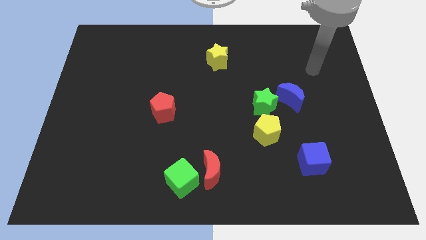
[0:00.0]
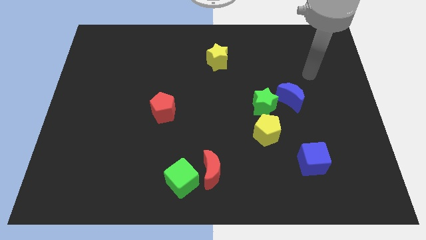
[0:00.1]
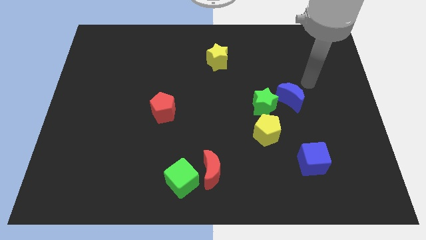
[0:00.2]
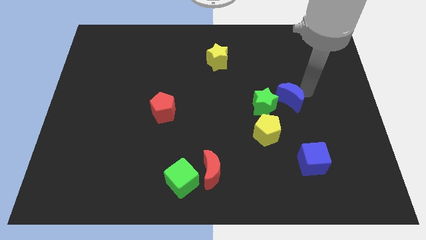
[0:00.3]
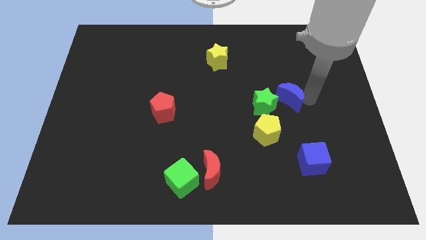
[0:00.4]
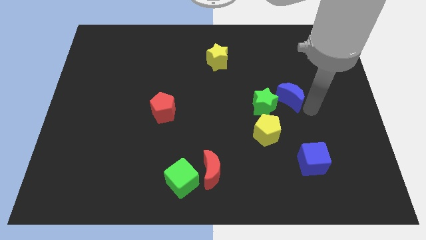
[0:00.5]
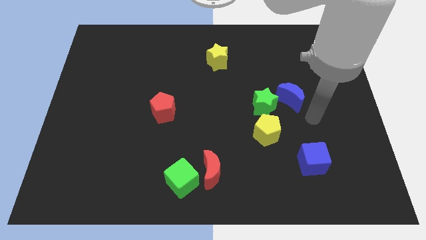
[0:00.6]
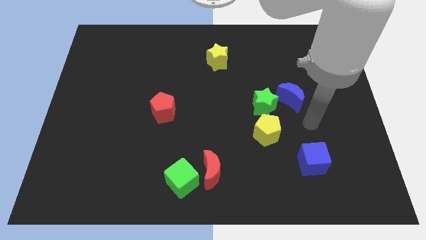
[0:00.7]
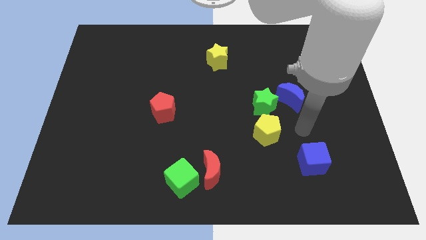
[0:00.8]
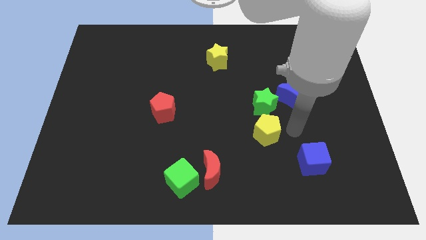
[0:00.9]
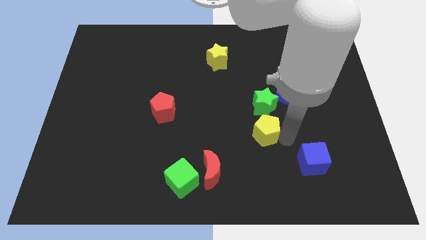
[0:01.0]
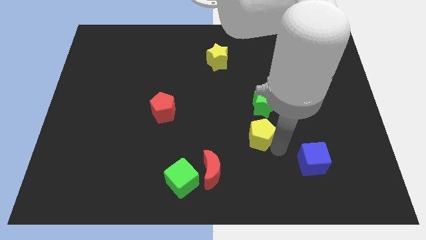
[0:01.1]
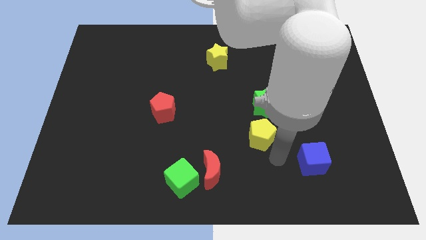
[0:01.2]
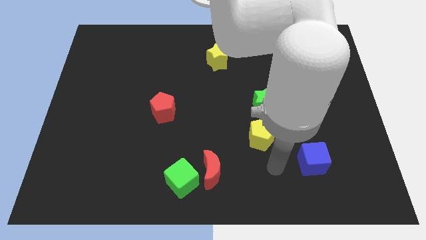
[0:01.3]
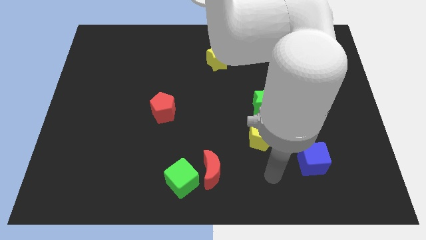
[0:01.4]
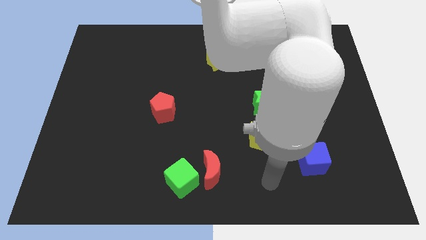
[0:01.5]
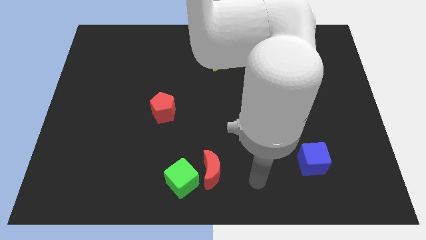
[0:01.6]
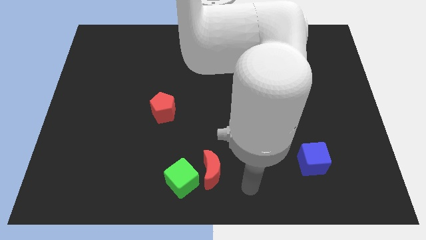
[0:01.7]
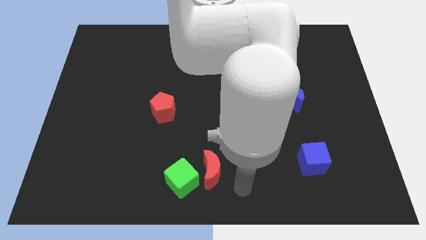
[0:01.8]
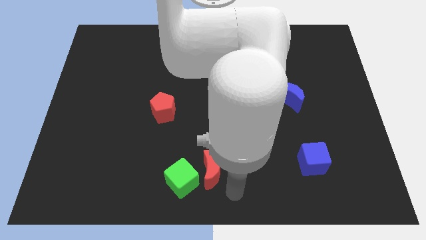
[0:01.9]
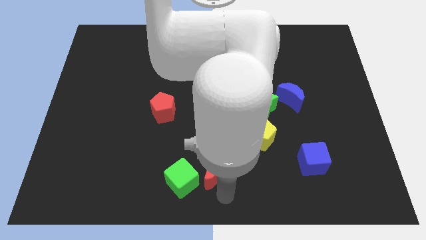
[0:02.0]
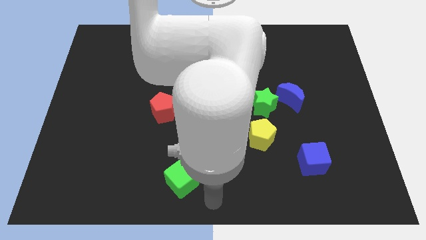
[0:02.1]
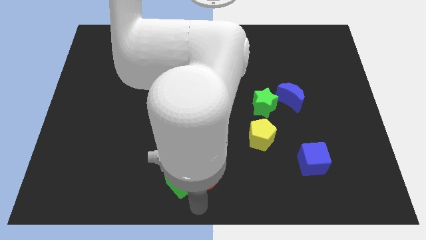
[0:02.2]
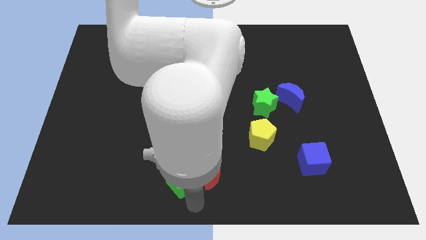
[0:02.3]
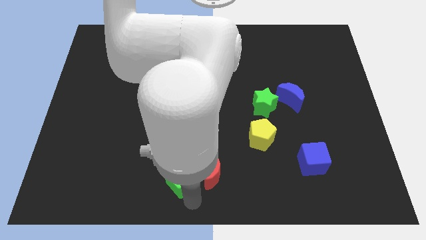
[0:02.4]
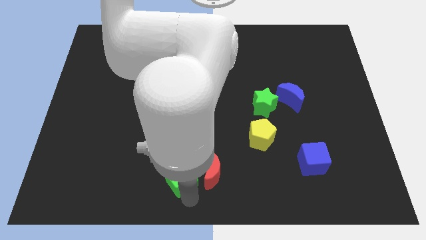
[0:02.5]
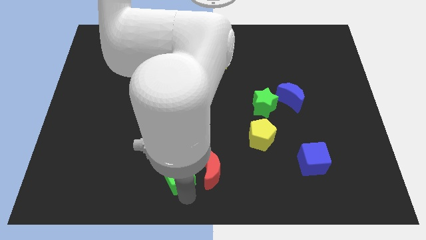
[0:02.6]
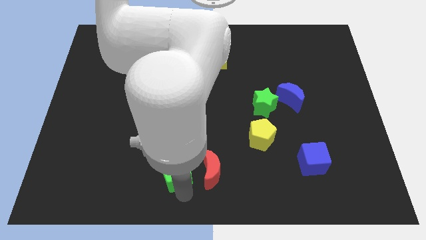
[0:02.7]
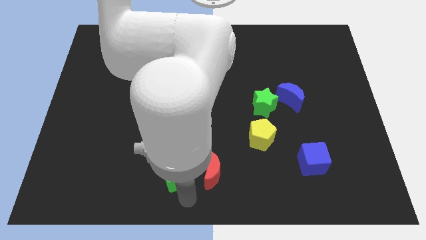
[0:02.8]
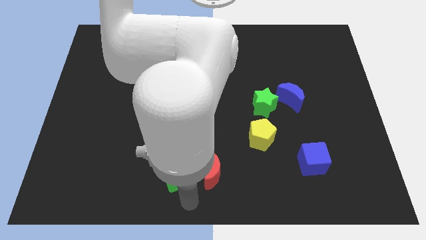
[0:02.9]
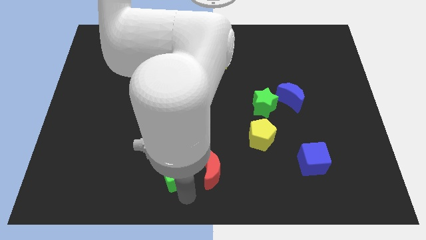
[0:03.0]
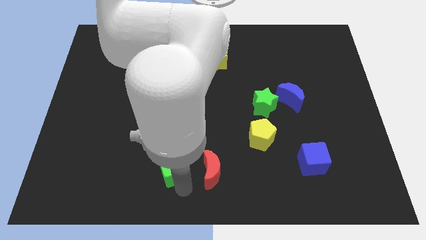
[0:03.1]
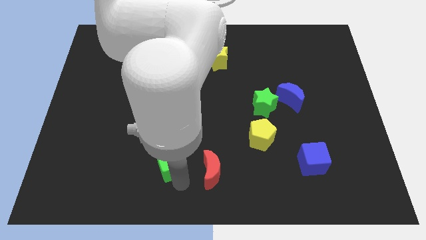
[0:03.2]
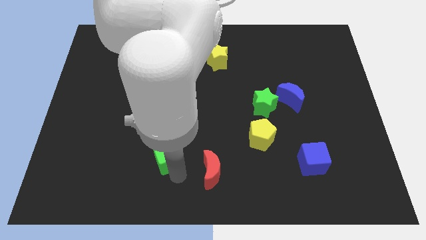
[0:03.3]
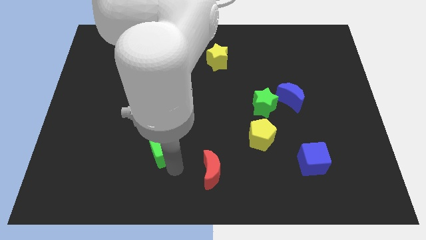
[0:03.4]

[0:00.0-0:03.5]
move the green cube a little upwards and left diagonally

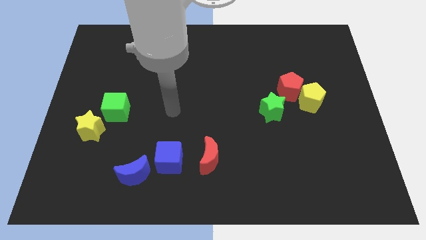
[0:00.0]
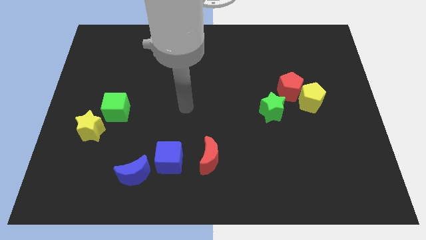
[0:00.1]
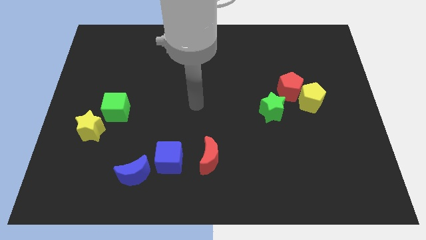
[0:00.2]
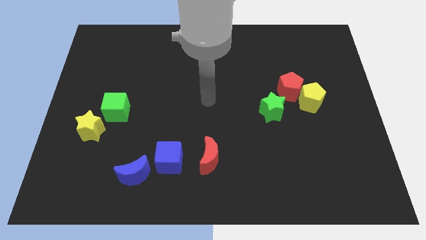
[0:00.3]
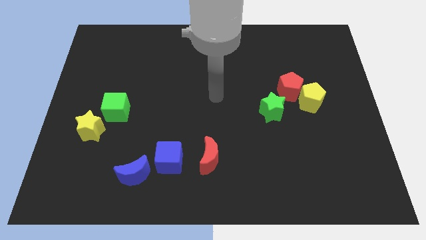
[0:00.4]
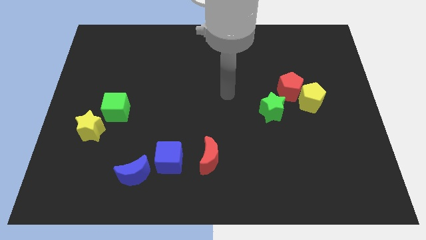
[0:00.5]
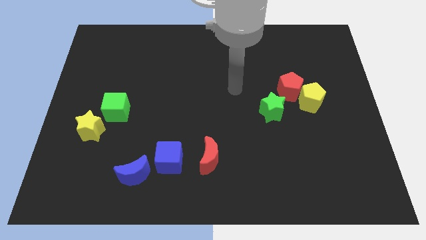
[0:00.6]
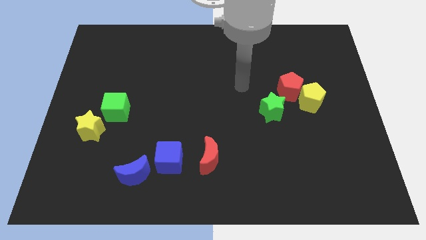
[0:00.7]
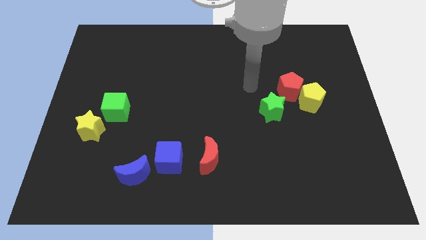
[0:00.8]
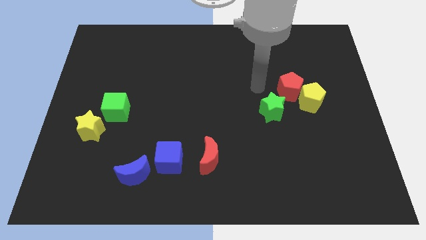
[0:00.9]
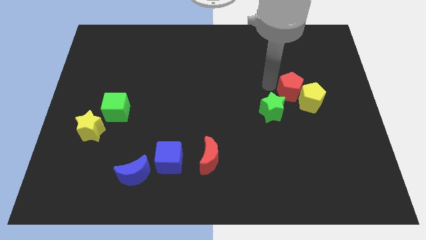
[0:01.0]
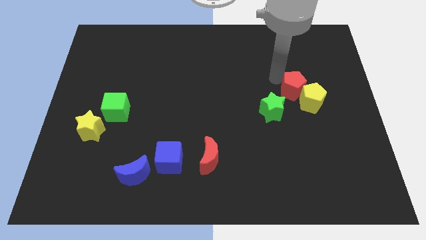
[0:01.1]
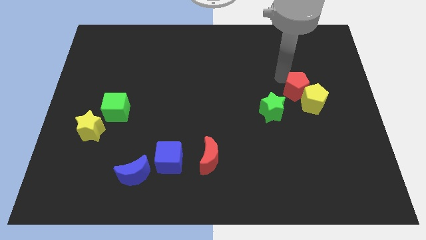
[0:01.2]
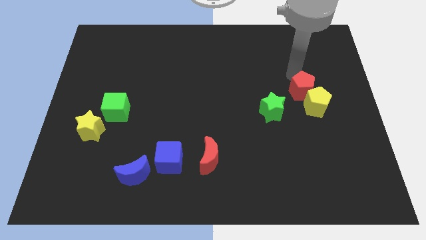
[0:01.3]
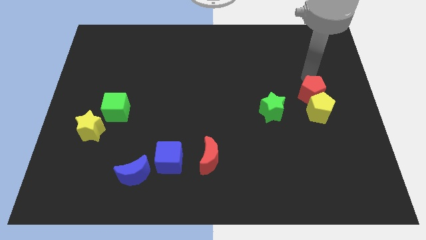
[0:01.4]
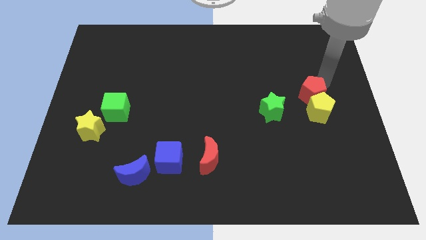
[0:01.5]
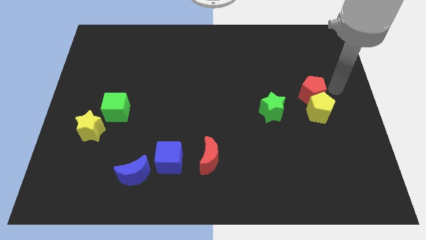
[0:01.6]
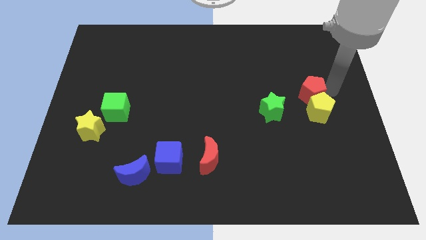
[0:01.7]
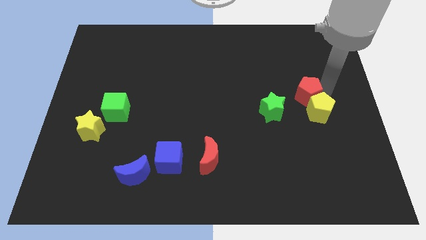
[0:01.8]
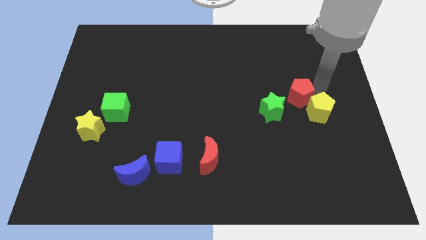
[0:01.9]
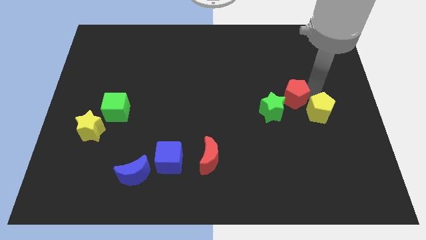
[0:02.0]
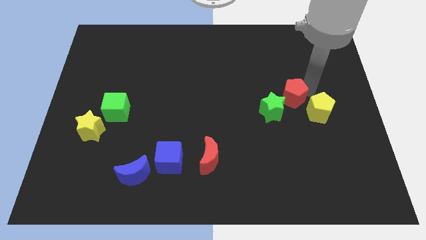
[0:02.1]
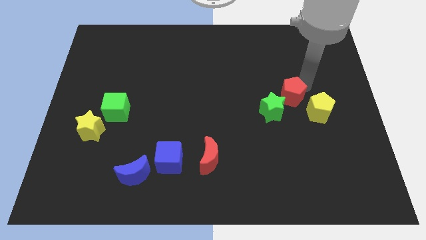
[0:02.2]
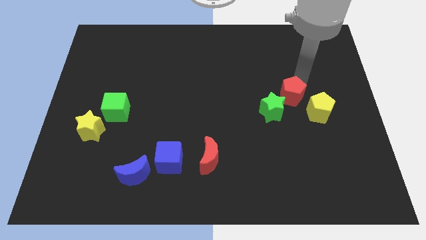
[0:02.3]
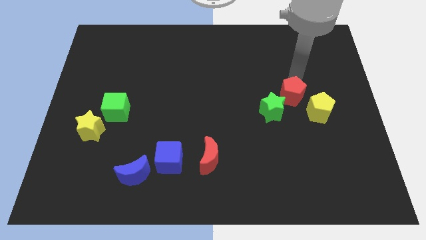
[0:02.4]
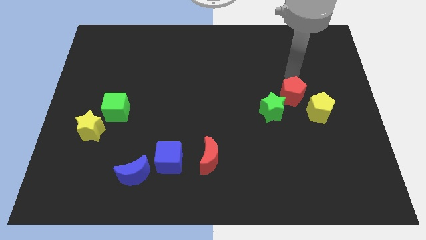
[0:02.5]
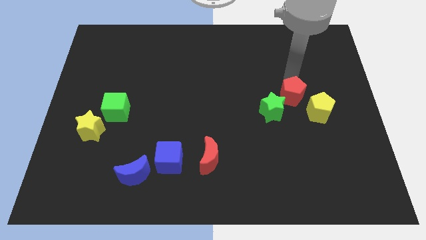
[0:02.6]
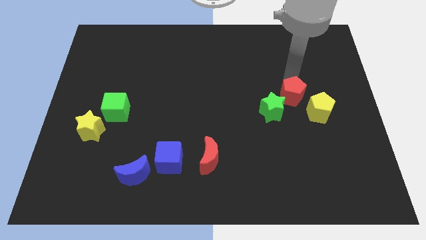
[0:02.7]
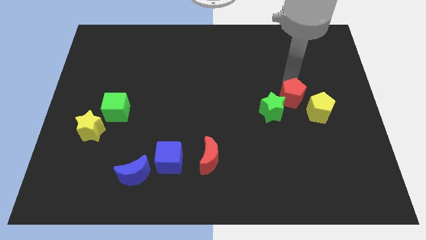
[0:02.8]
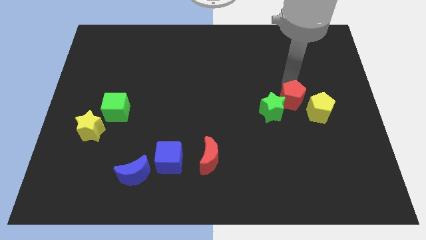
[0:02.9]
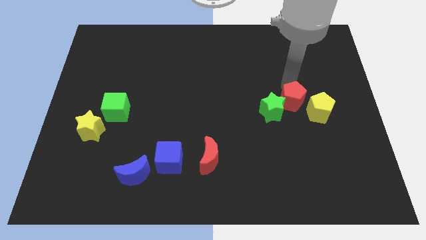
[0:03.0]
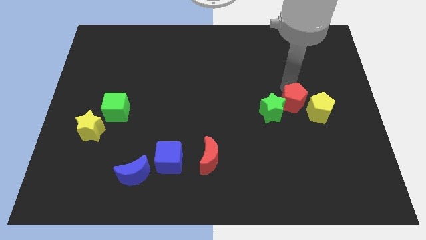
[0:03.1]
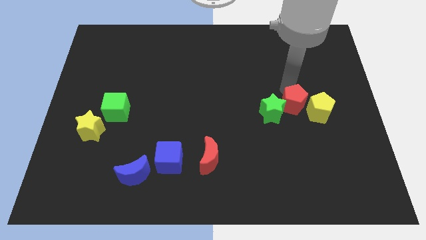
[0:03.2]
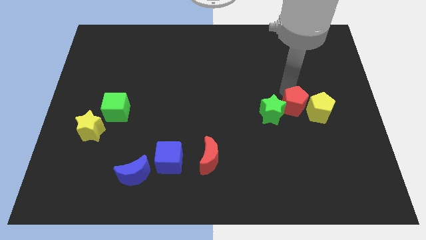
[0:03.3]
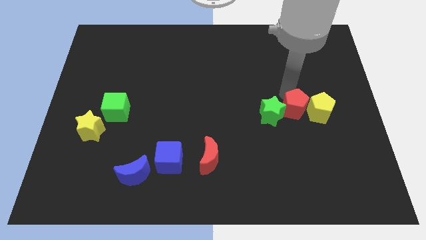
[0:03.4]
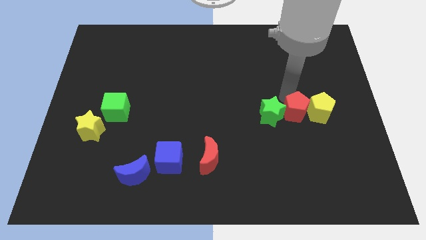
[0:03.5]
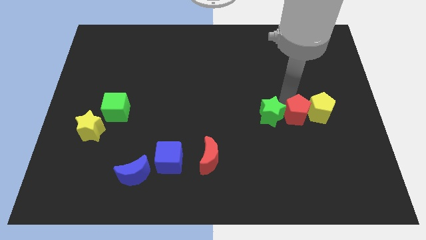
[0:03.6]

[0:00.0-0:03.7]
move the red pentagon a bit down

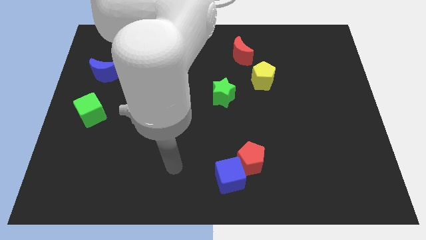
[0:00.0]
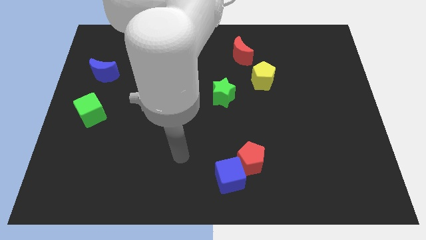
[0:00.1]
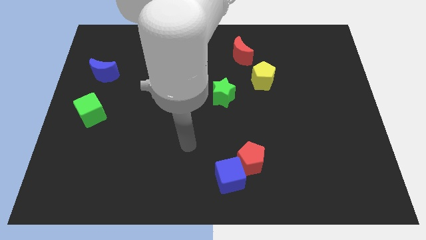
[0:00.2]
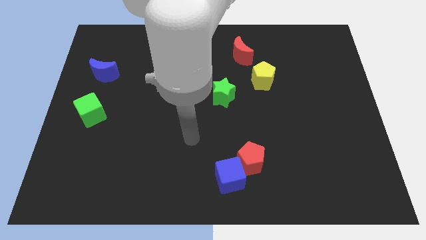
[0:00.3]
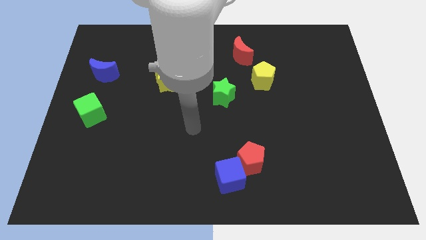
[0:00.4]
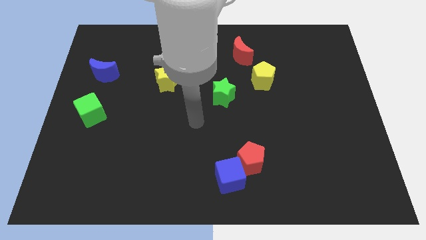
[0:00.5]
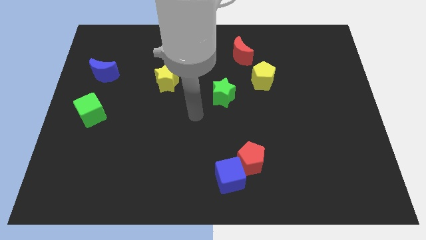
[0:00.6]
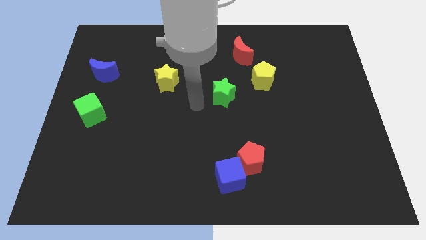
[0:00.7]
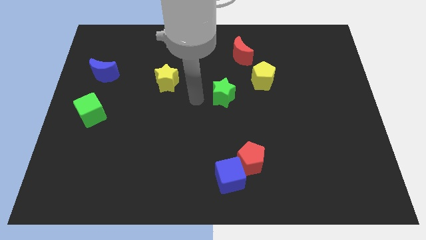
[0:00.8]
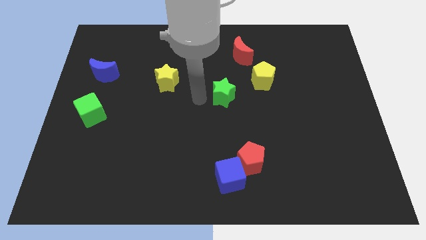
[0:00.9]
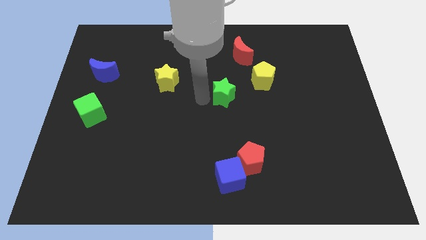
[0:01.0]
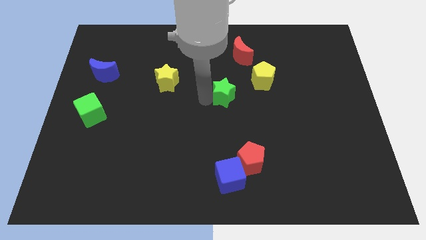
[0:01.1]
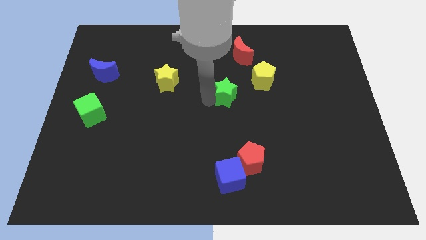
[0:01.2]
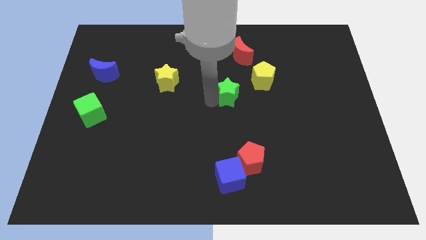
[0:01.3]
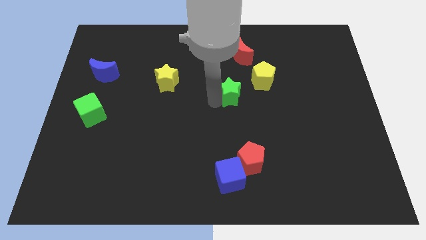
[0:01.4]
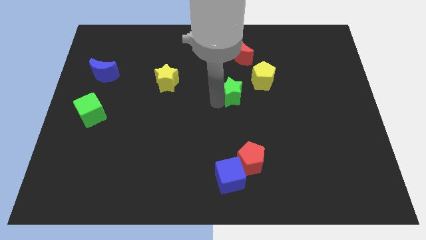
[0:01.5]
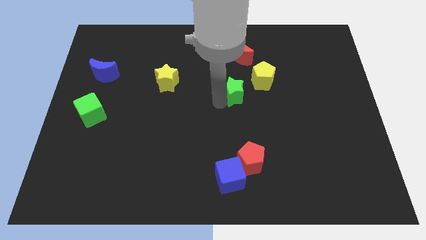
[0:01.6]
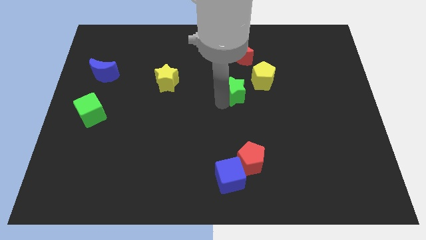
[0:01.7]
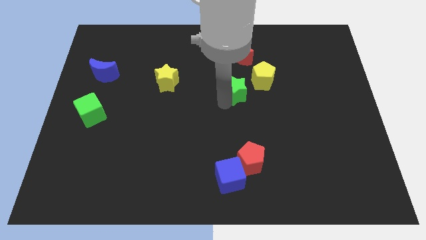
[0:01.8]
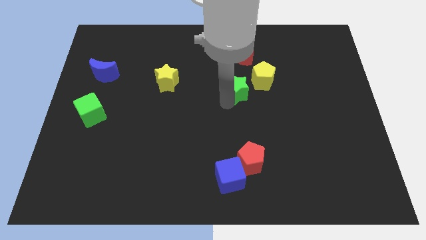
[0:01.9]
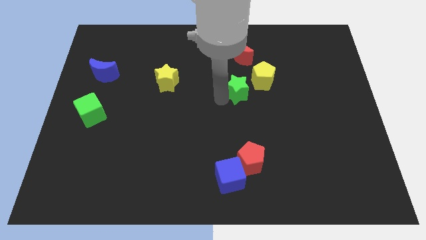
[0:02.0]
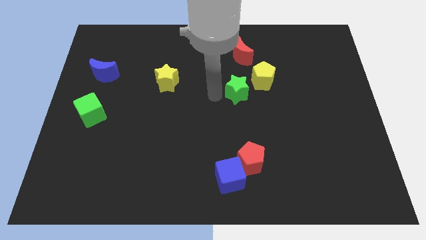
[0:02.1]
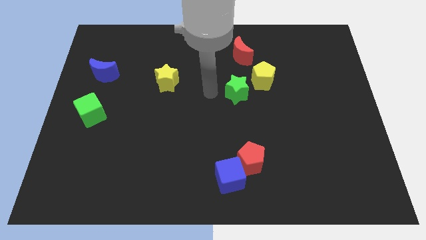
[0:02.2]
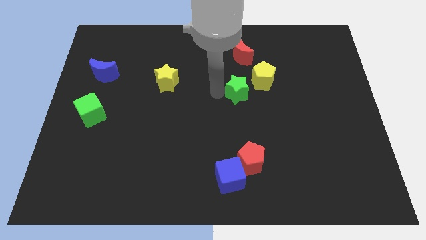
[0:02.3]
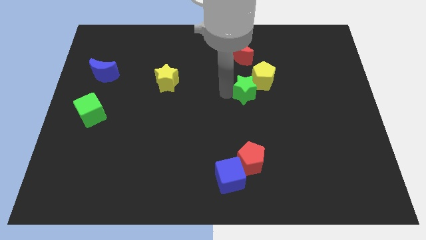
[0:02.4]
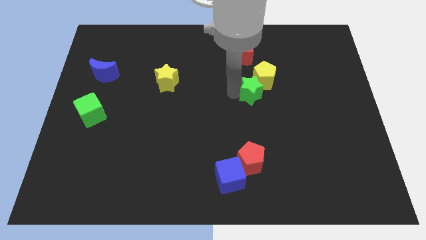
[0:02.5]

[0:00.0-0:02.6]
slightly push the green star to the right
